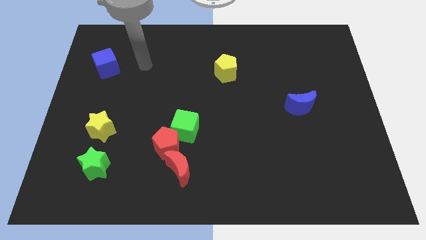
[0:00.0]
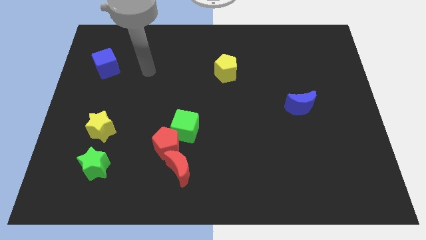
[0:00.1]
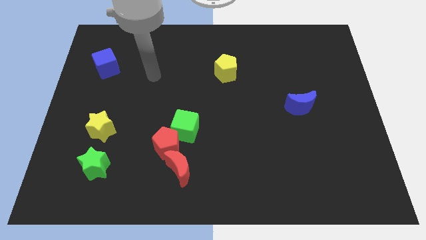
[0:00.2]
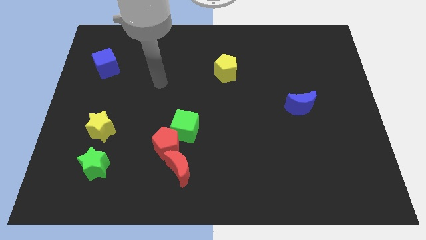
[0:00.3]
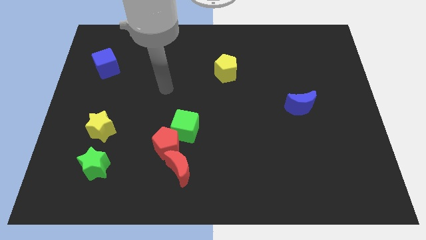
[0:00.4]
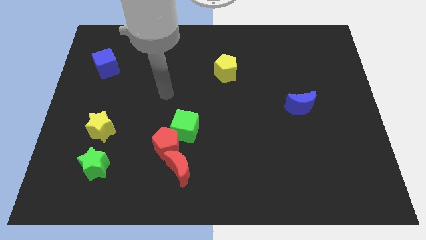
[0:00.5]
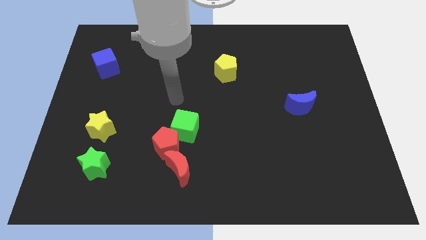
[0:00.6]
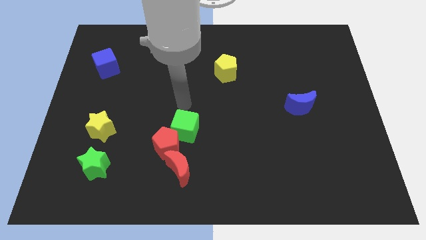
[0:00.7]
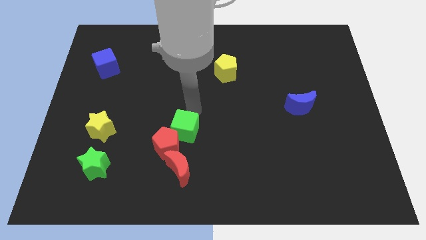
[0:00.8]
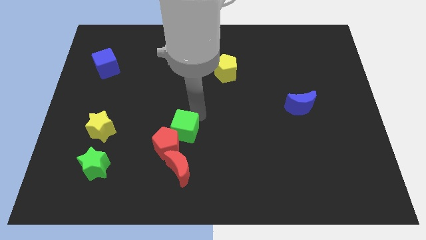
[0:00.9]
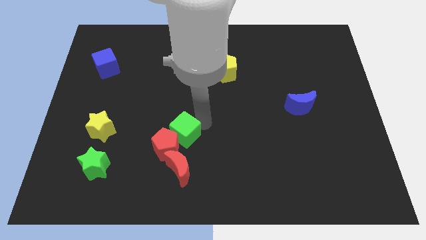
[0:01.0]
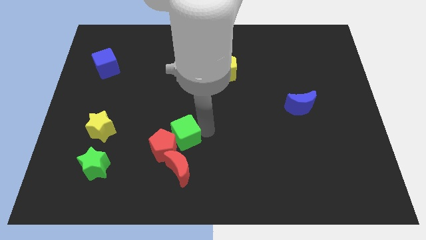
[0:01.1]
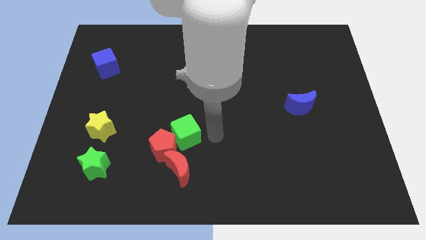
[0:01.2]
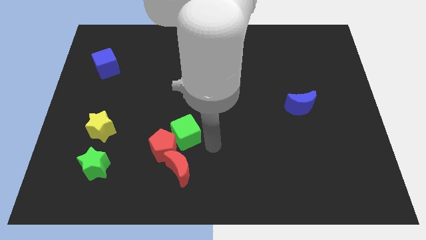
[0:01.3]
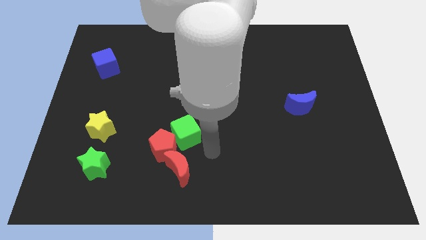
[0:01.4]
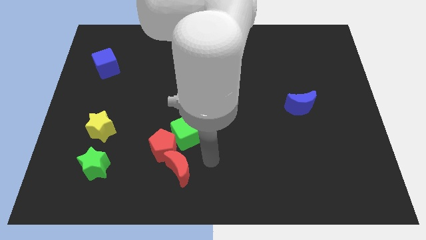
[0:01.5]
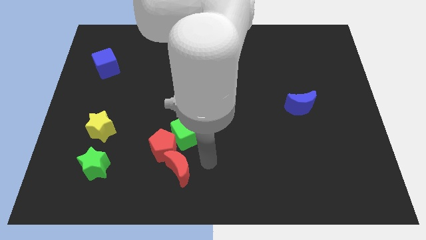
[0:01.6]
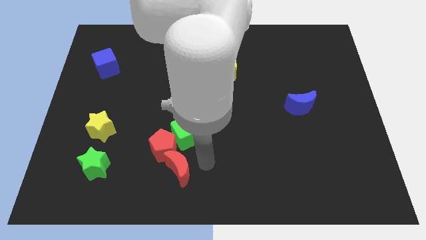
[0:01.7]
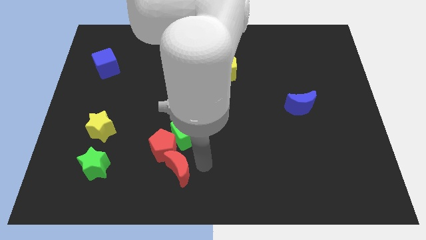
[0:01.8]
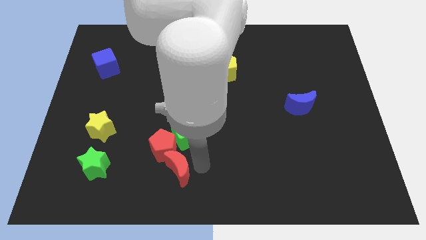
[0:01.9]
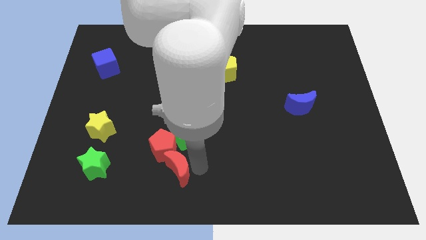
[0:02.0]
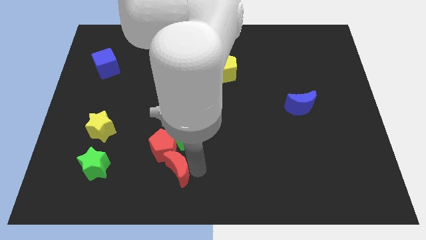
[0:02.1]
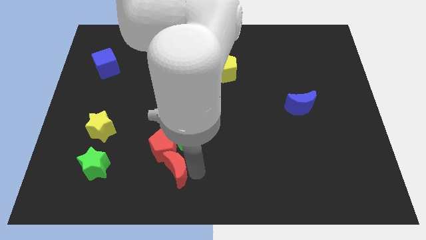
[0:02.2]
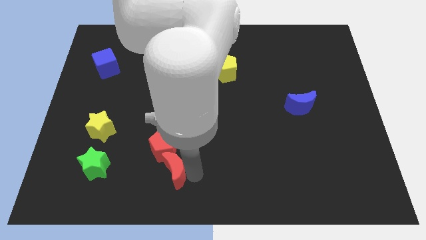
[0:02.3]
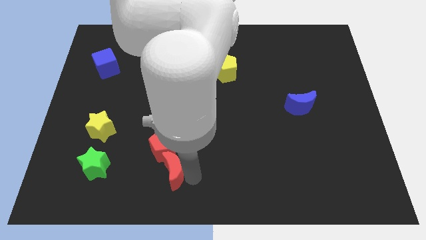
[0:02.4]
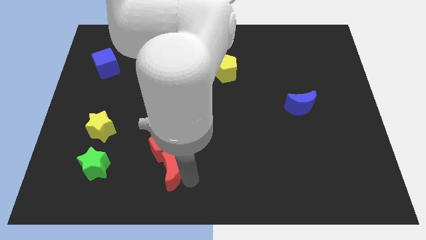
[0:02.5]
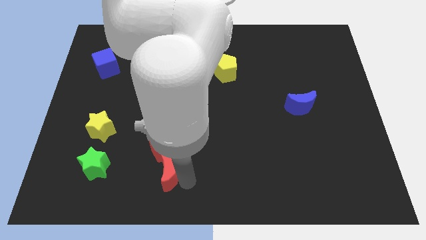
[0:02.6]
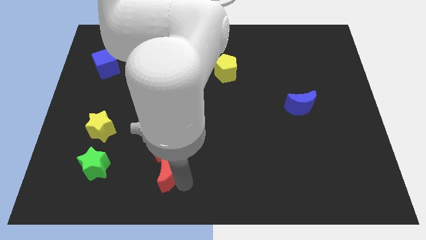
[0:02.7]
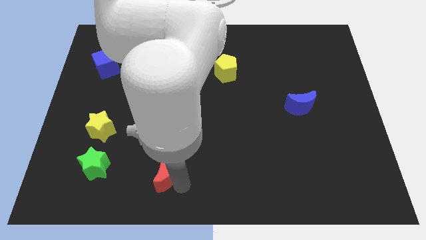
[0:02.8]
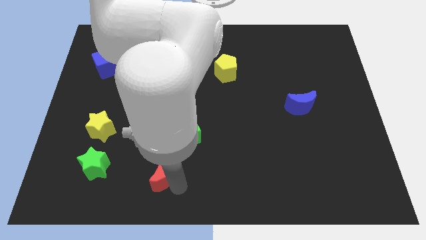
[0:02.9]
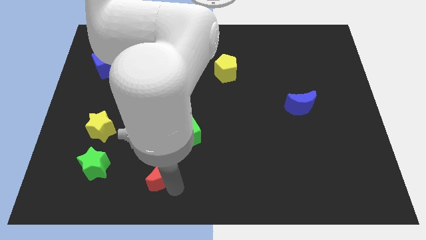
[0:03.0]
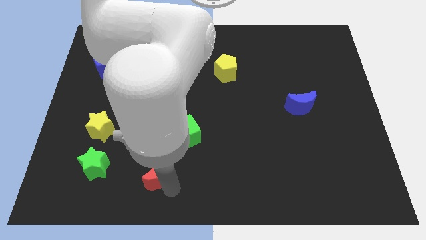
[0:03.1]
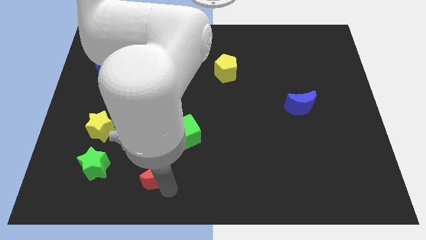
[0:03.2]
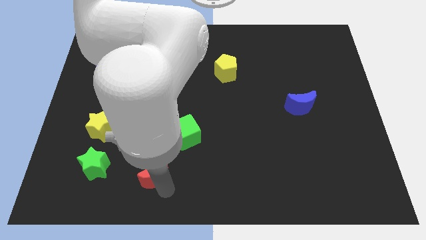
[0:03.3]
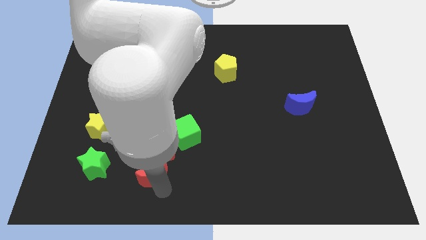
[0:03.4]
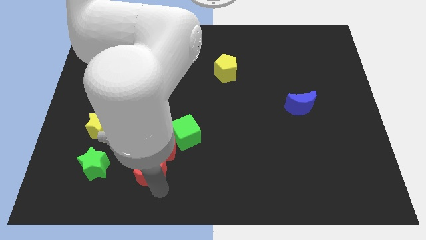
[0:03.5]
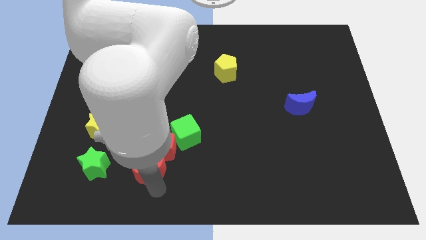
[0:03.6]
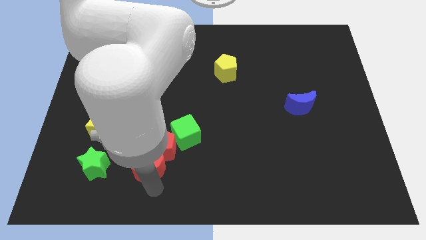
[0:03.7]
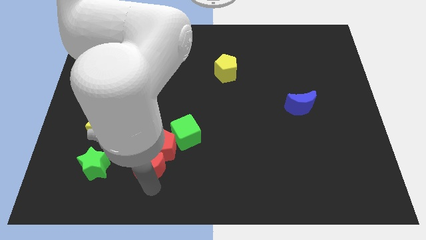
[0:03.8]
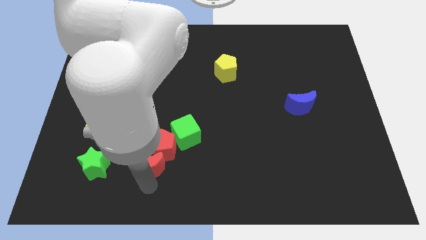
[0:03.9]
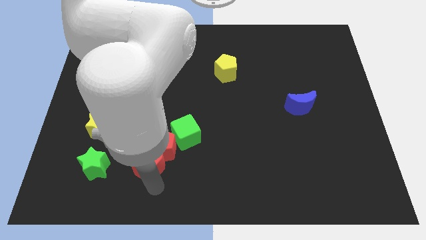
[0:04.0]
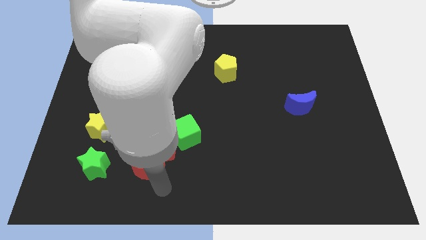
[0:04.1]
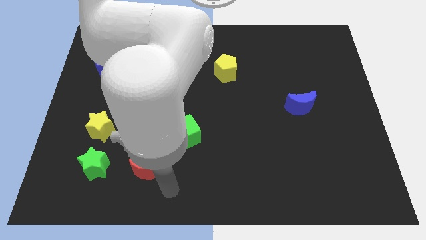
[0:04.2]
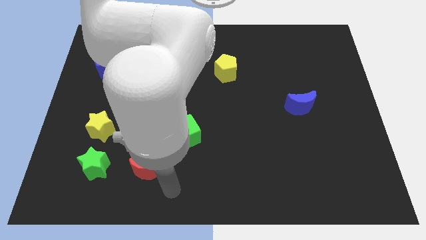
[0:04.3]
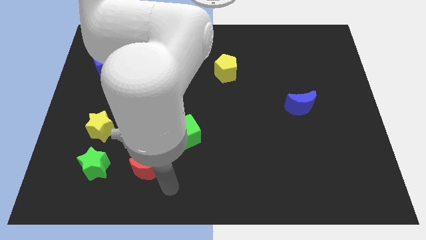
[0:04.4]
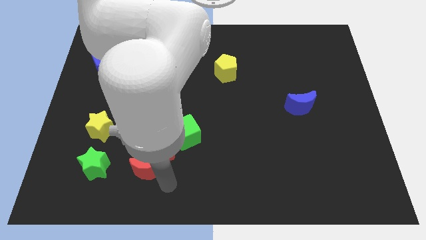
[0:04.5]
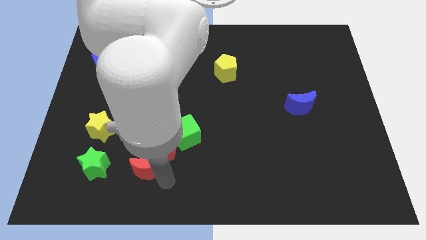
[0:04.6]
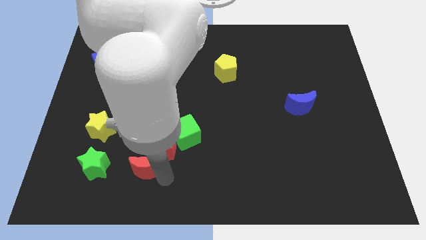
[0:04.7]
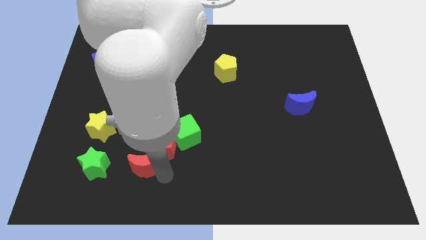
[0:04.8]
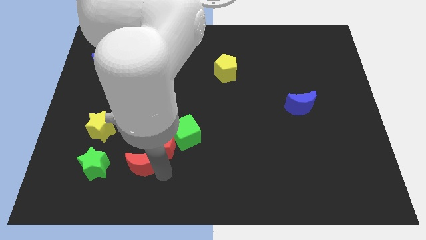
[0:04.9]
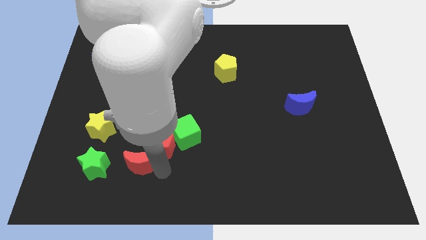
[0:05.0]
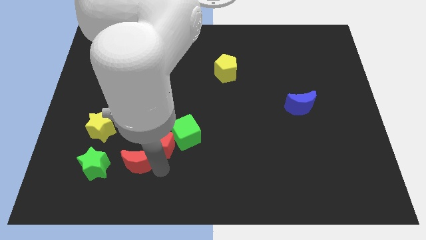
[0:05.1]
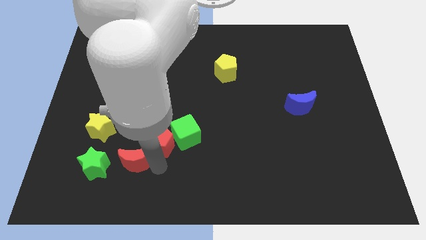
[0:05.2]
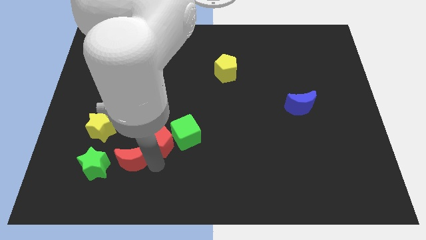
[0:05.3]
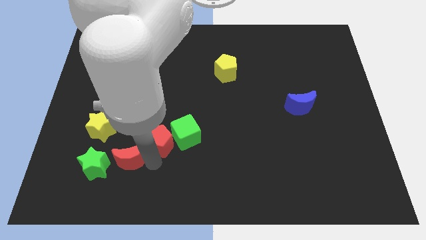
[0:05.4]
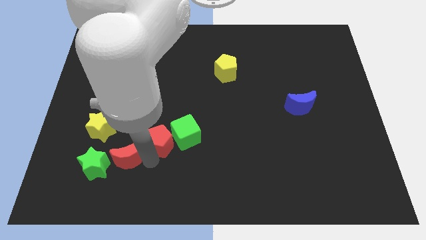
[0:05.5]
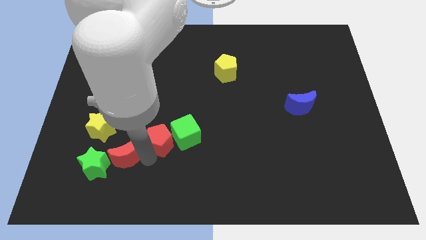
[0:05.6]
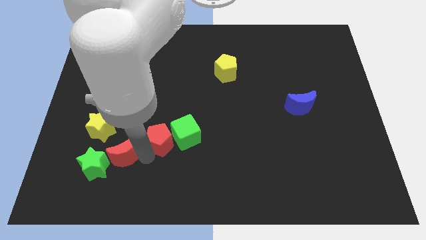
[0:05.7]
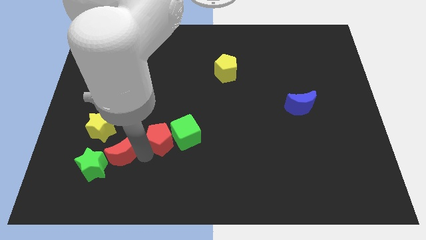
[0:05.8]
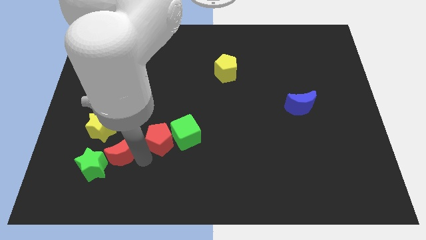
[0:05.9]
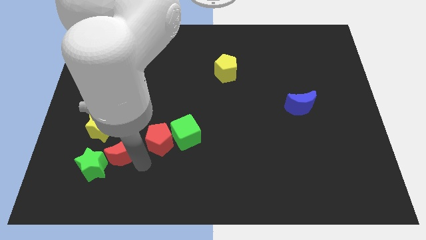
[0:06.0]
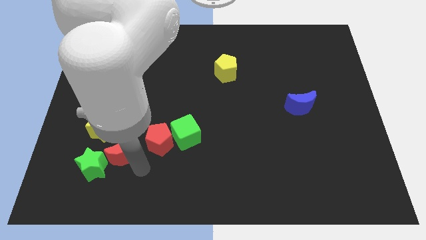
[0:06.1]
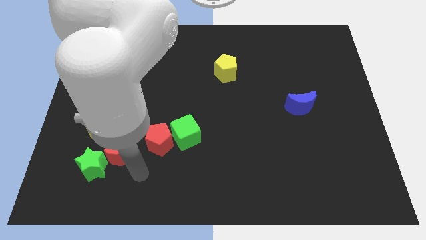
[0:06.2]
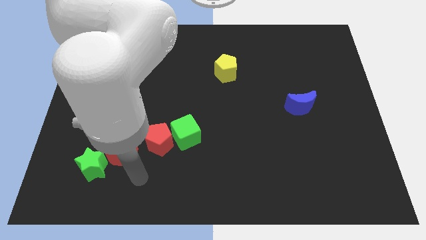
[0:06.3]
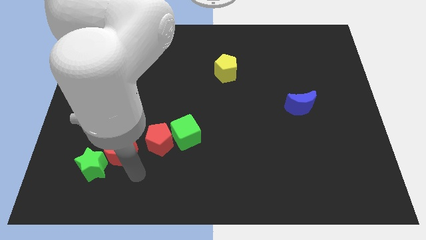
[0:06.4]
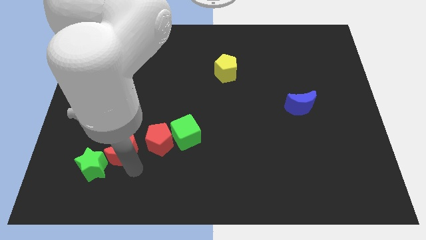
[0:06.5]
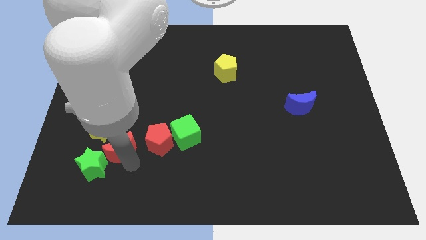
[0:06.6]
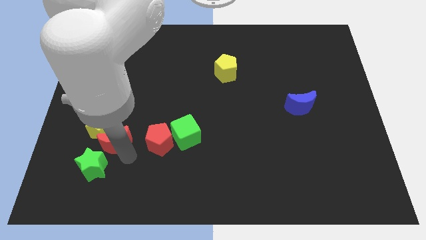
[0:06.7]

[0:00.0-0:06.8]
push the red moon close to the yellow star

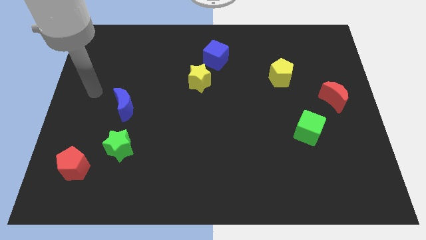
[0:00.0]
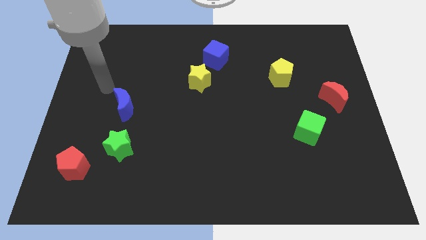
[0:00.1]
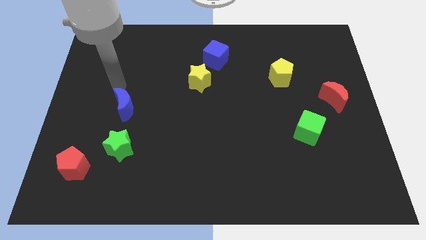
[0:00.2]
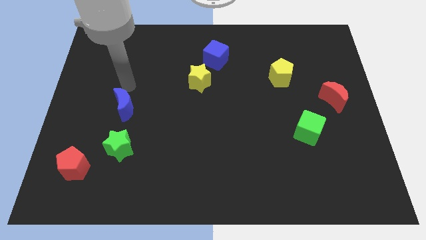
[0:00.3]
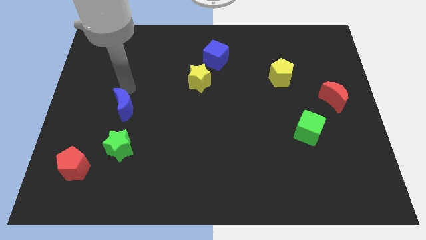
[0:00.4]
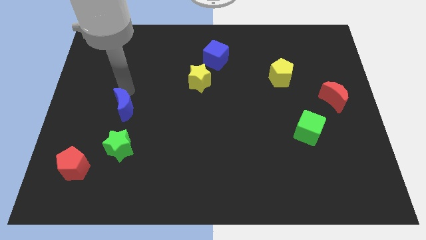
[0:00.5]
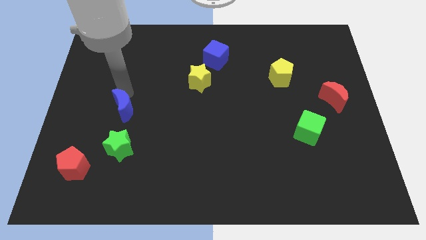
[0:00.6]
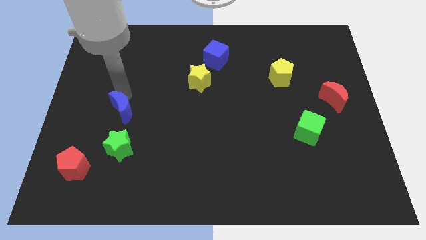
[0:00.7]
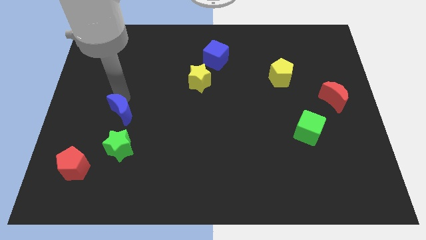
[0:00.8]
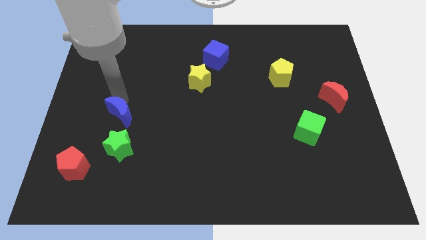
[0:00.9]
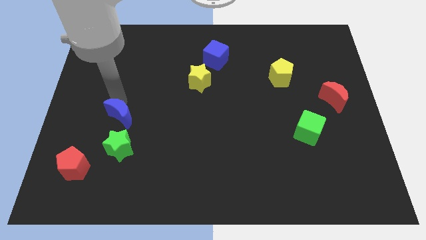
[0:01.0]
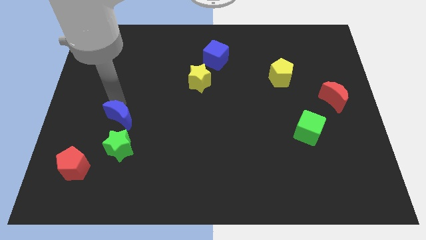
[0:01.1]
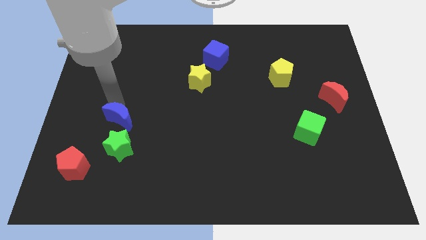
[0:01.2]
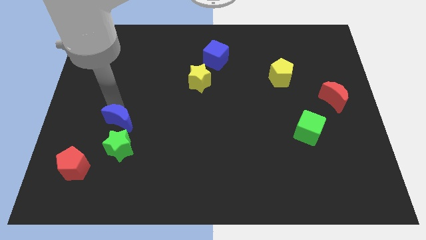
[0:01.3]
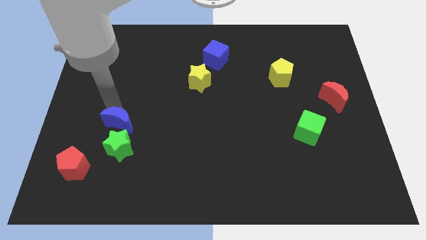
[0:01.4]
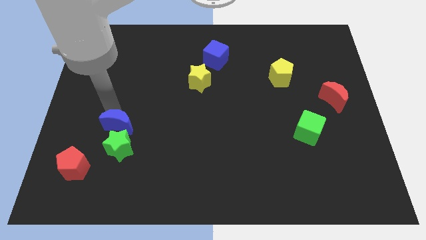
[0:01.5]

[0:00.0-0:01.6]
move the blue moon close to the green star
